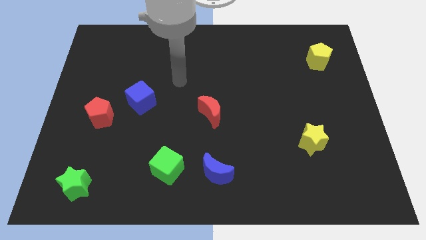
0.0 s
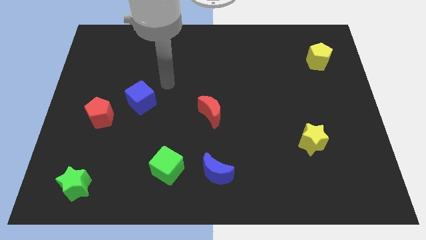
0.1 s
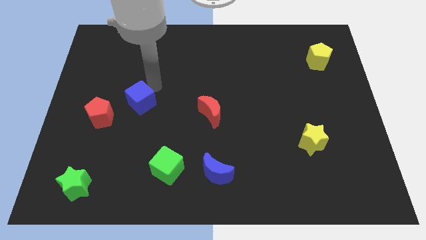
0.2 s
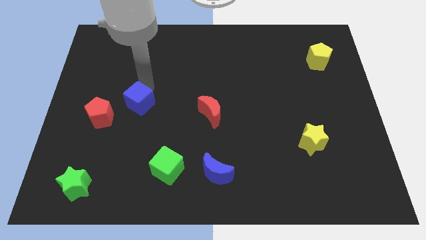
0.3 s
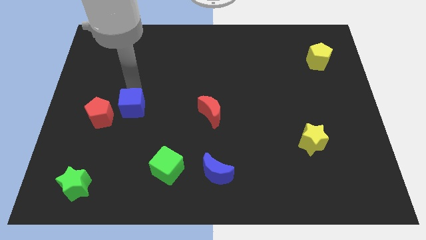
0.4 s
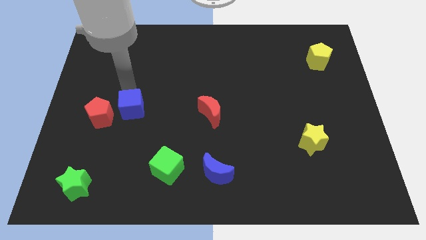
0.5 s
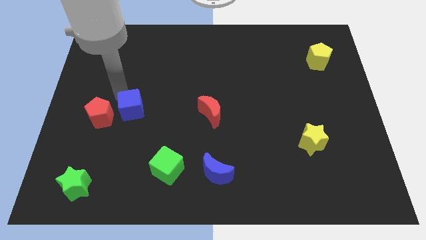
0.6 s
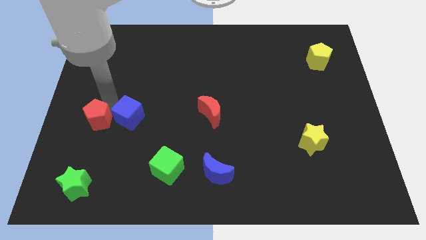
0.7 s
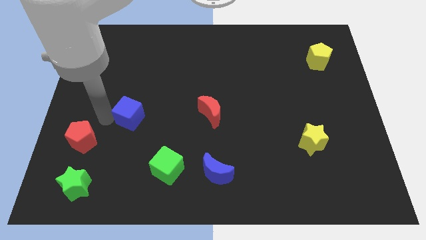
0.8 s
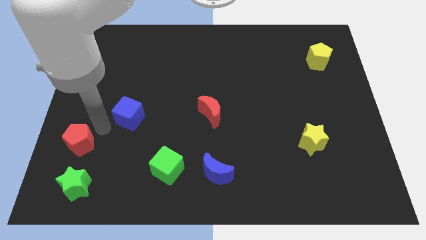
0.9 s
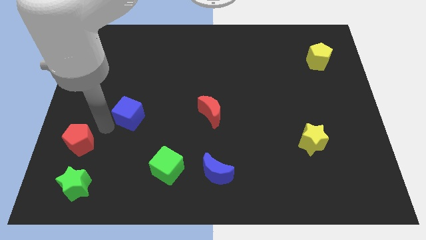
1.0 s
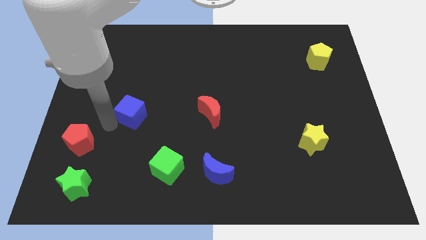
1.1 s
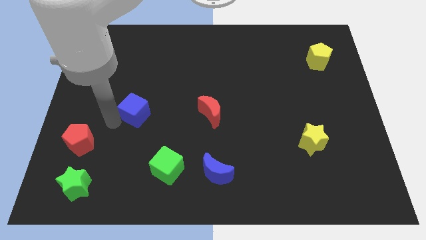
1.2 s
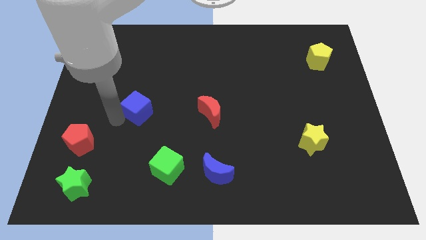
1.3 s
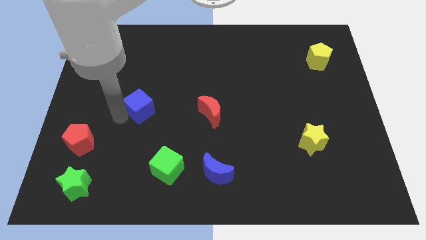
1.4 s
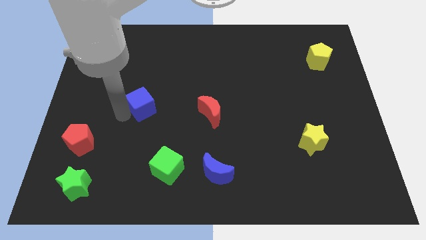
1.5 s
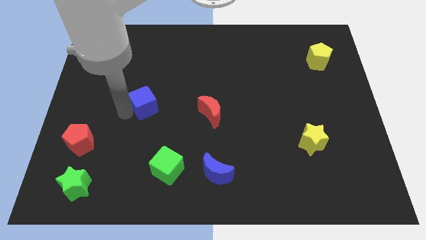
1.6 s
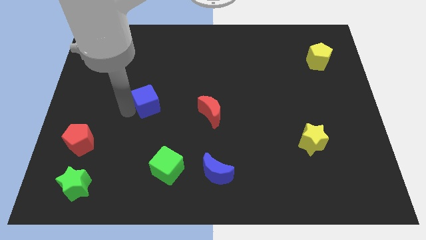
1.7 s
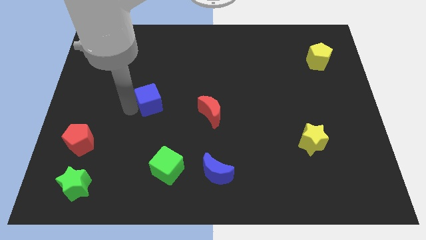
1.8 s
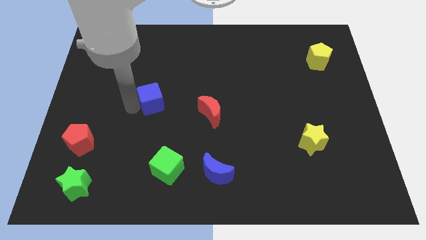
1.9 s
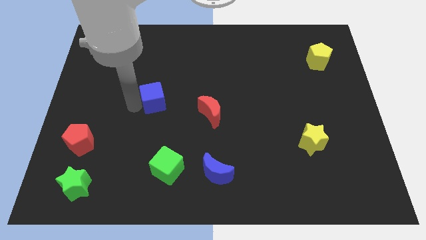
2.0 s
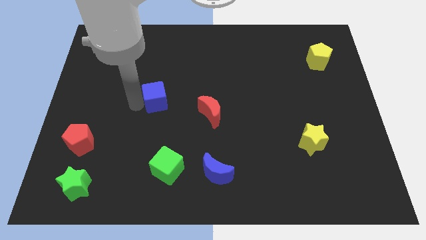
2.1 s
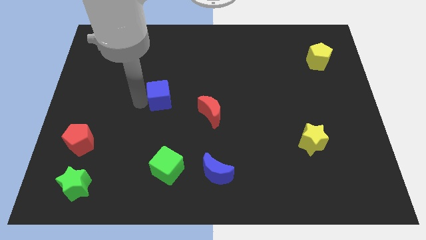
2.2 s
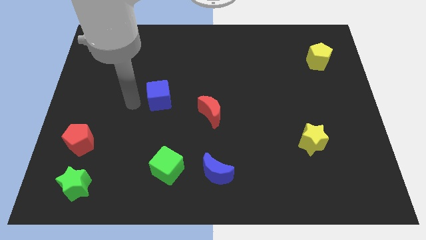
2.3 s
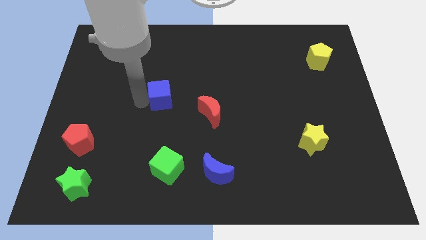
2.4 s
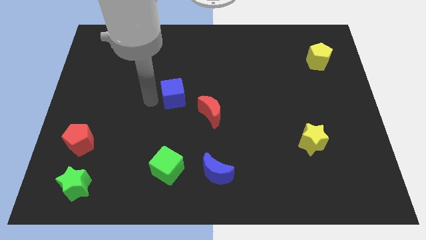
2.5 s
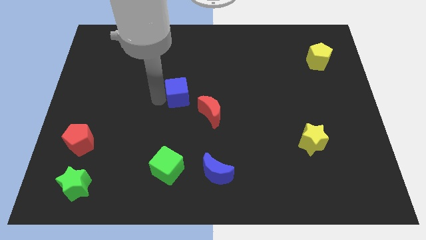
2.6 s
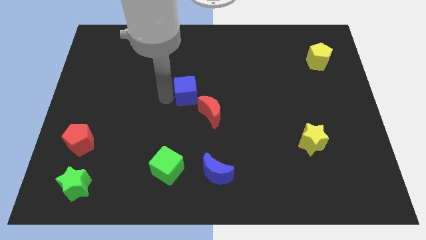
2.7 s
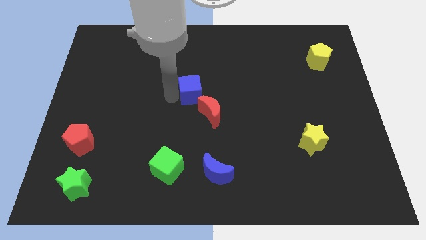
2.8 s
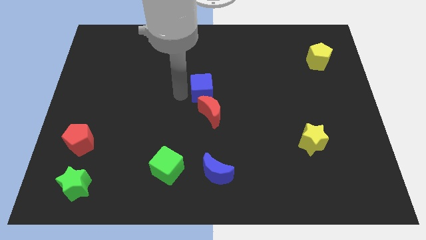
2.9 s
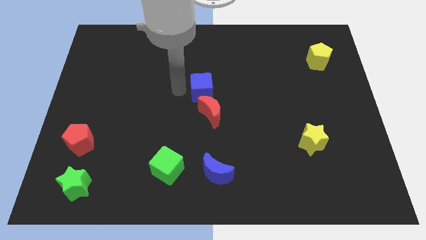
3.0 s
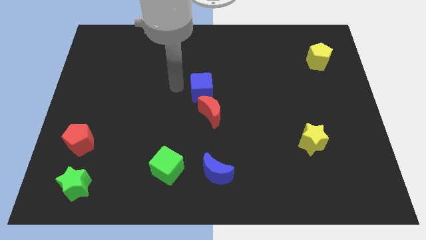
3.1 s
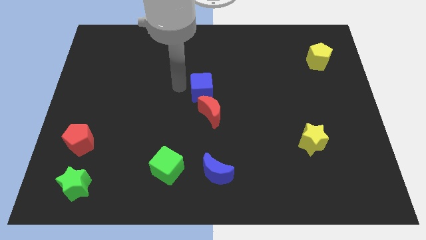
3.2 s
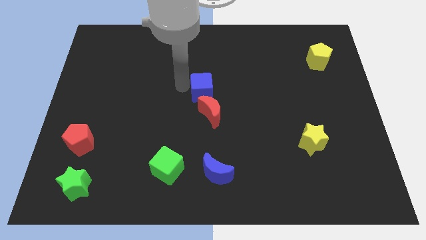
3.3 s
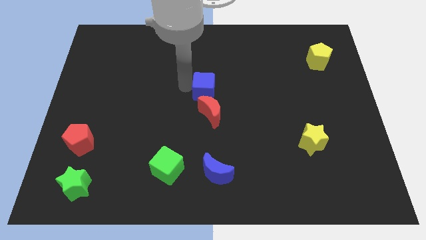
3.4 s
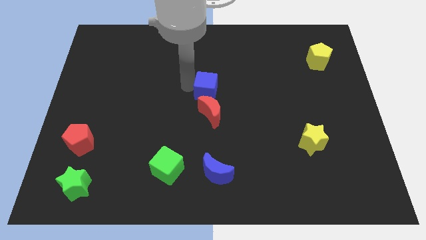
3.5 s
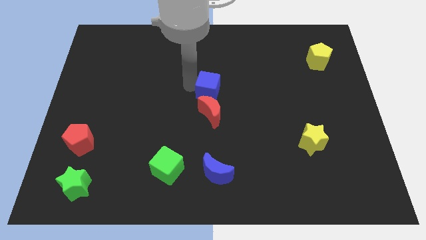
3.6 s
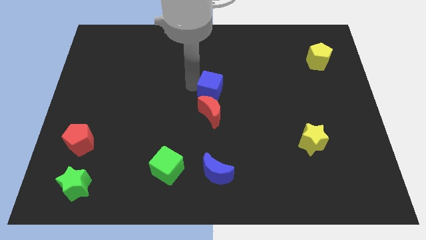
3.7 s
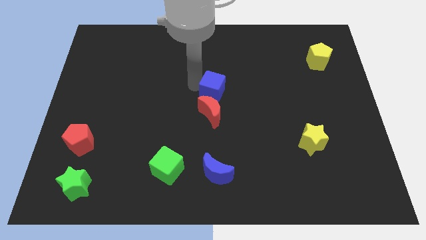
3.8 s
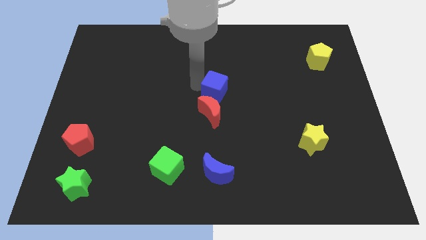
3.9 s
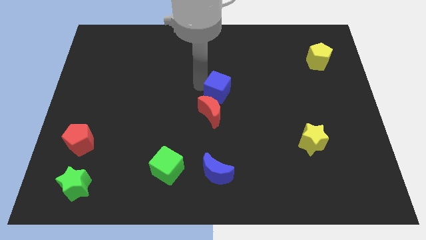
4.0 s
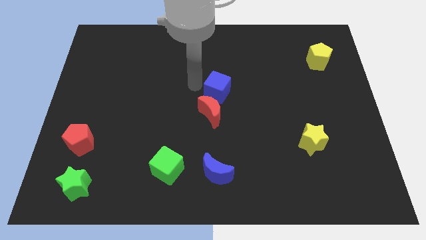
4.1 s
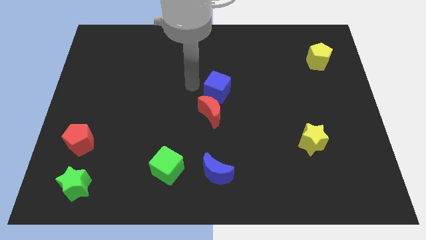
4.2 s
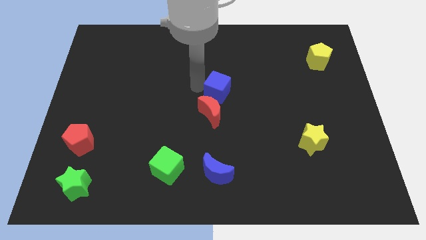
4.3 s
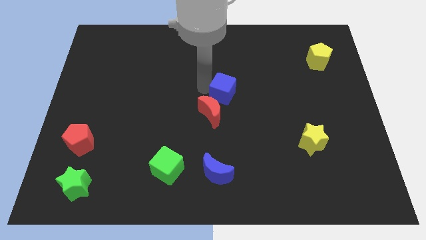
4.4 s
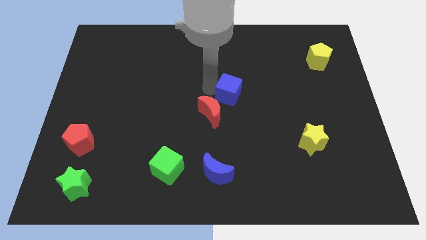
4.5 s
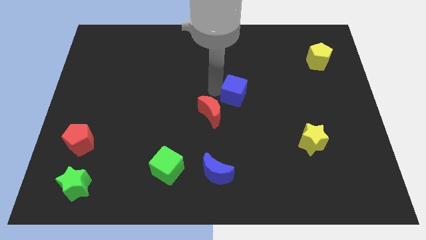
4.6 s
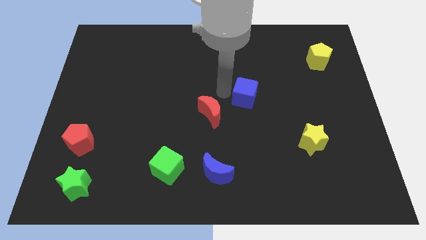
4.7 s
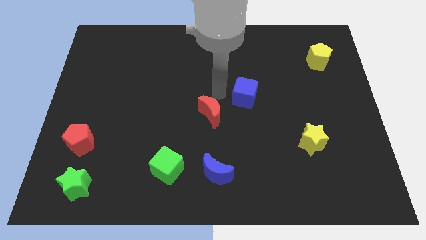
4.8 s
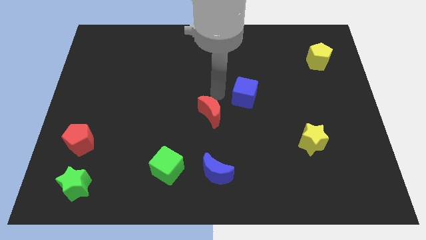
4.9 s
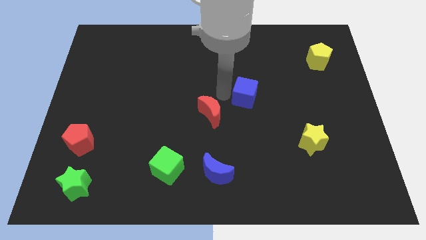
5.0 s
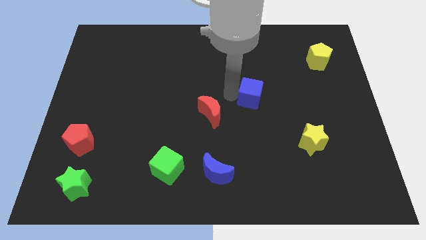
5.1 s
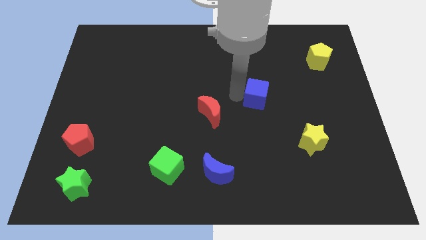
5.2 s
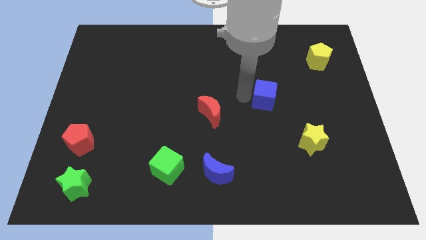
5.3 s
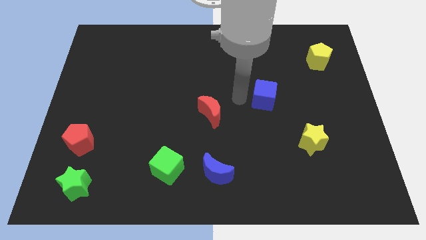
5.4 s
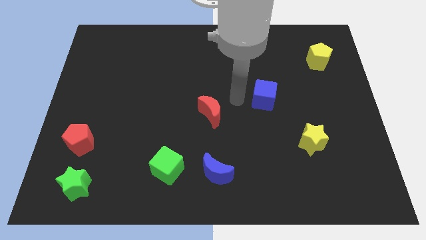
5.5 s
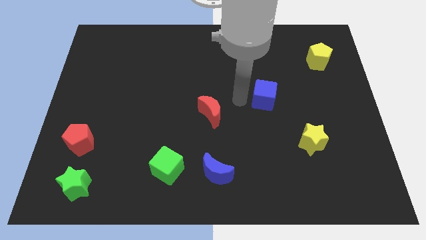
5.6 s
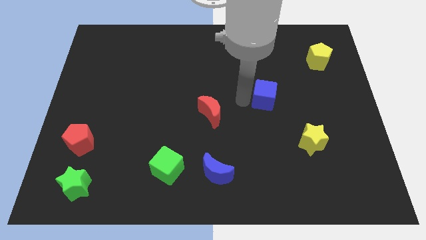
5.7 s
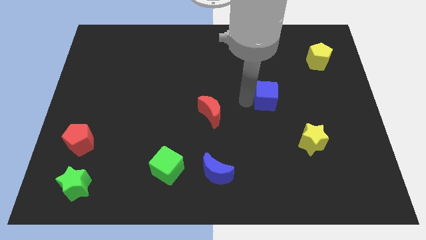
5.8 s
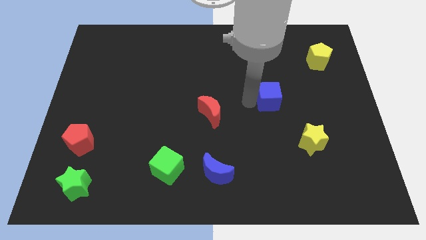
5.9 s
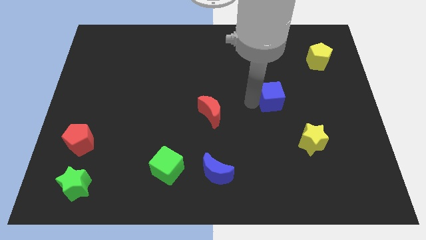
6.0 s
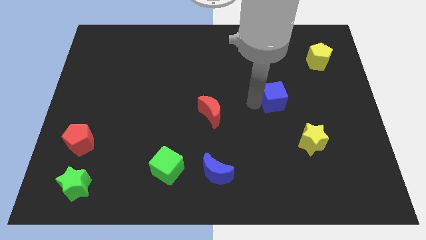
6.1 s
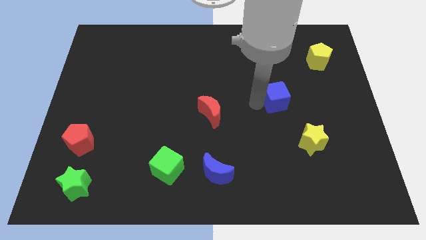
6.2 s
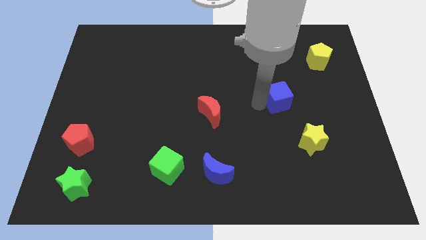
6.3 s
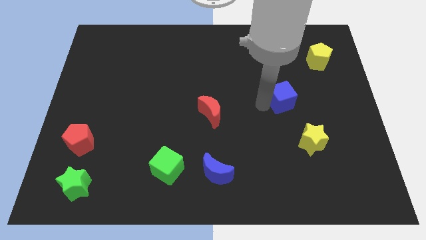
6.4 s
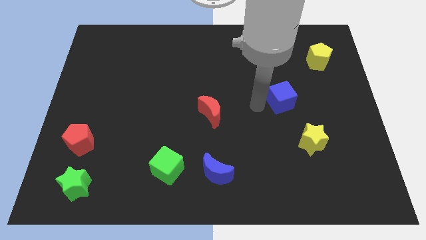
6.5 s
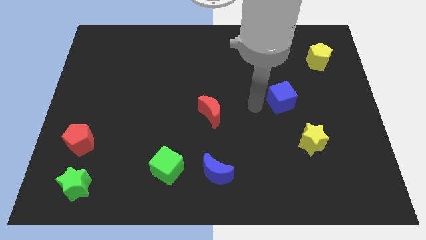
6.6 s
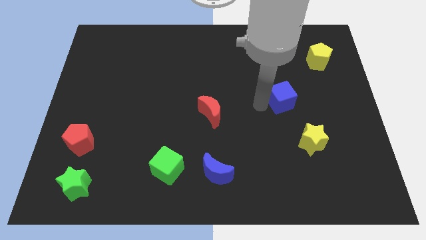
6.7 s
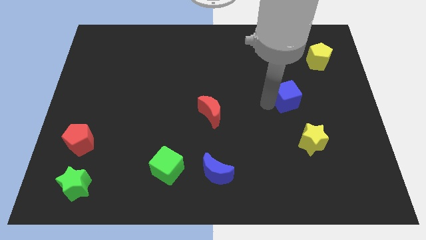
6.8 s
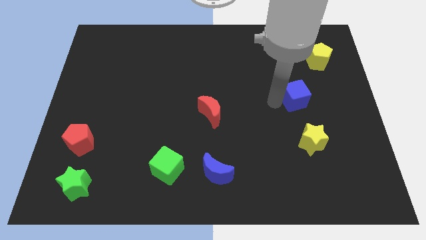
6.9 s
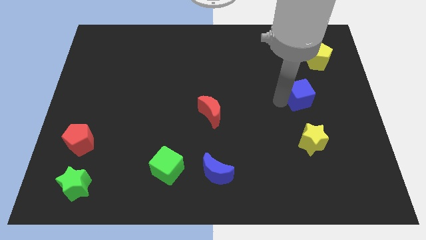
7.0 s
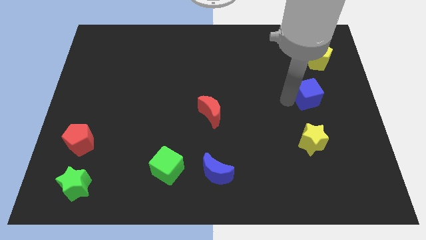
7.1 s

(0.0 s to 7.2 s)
slide the blue cube below the yellow pentagon

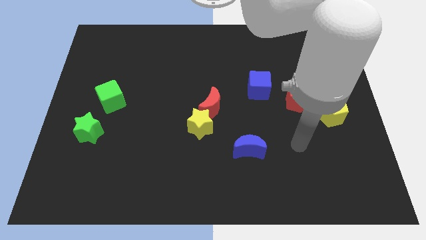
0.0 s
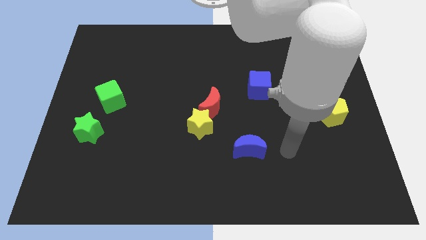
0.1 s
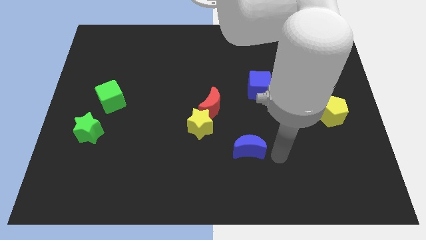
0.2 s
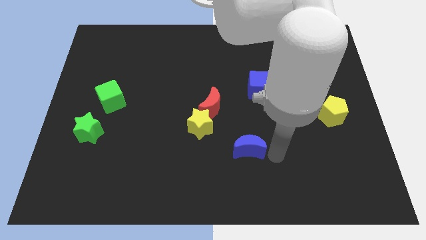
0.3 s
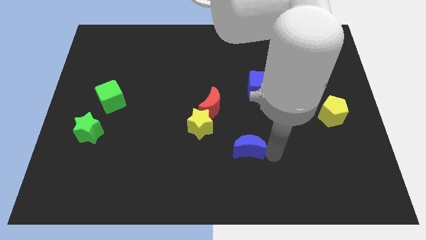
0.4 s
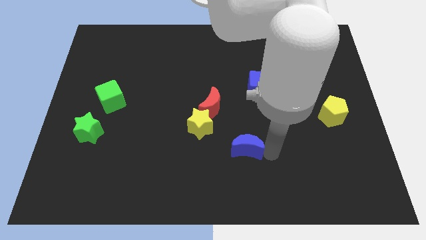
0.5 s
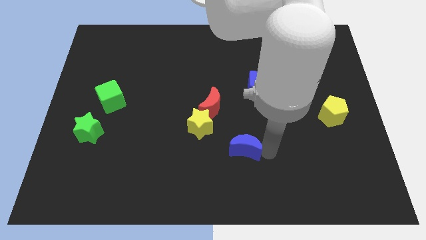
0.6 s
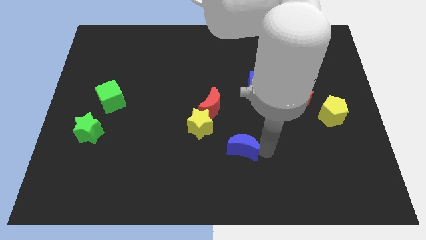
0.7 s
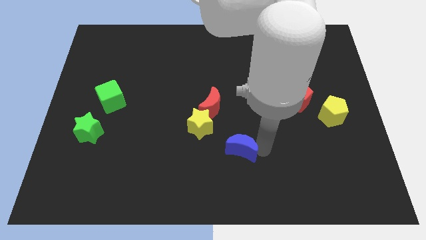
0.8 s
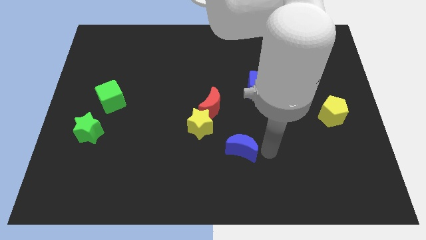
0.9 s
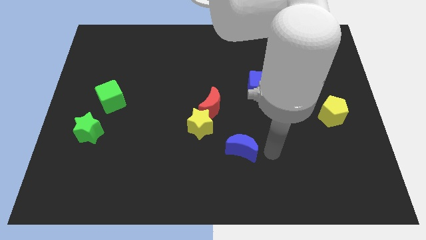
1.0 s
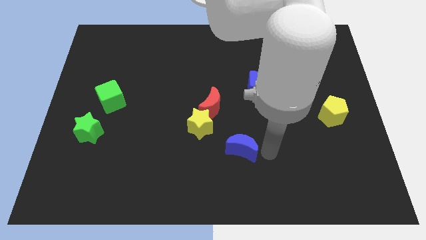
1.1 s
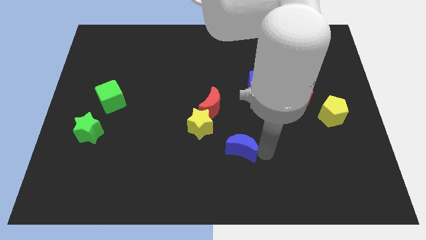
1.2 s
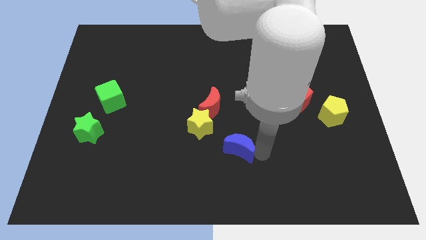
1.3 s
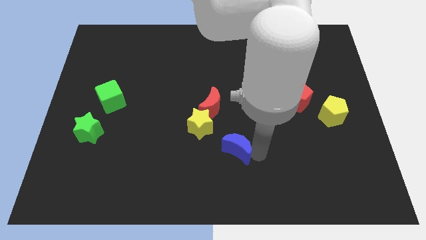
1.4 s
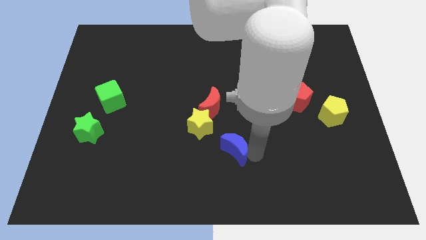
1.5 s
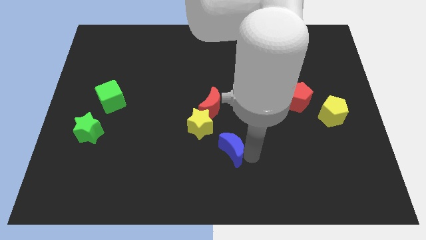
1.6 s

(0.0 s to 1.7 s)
put the blue moon to the bottom side of the red moon
